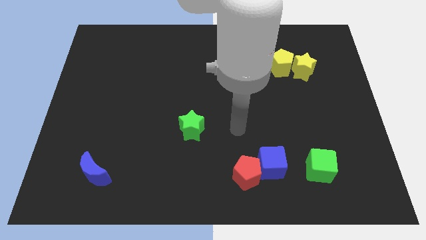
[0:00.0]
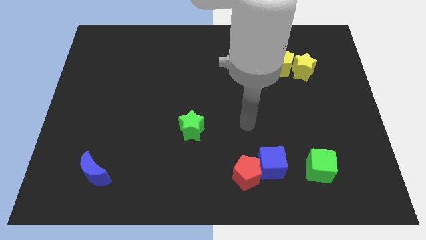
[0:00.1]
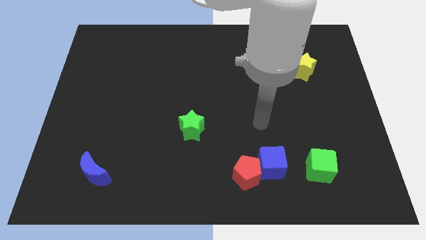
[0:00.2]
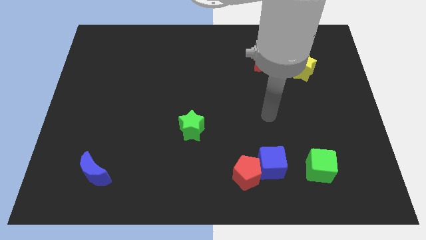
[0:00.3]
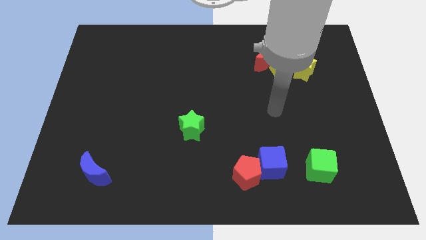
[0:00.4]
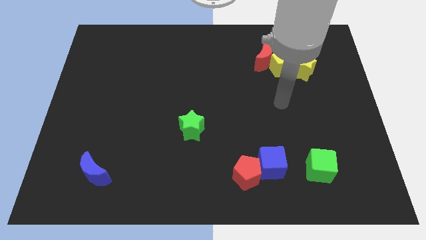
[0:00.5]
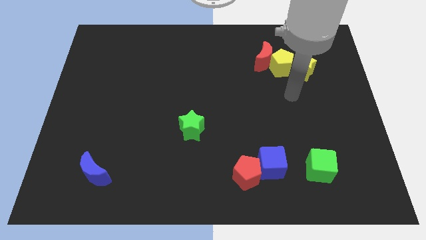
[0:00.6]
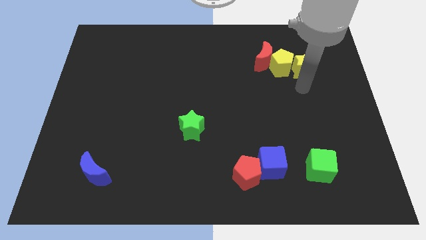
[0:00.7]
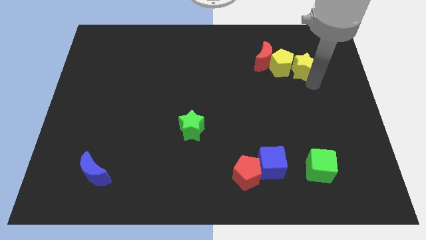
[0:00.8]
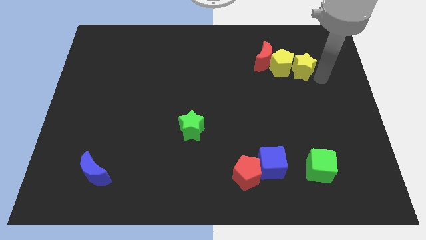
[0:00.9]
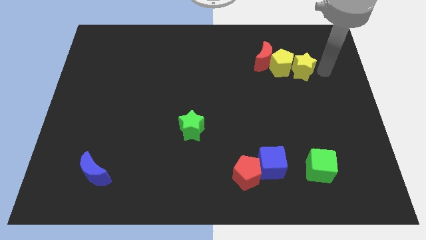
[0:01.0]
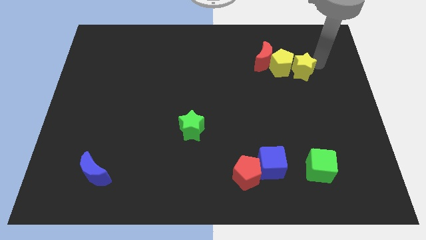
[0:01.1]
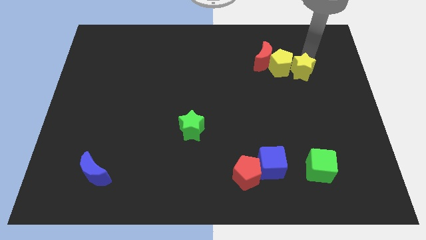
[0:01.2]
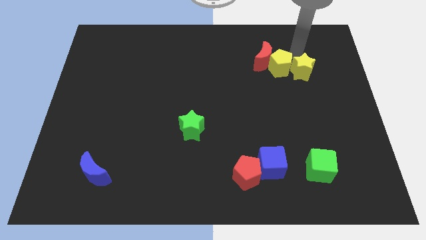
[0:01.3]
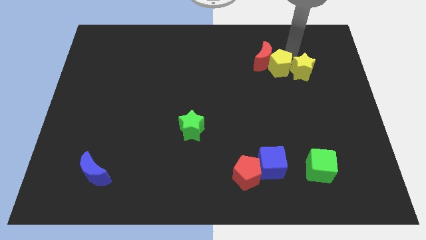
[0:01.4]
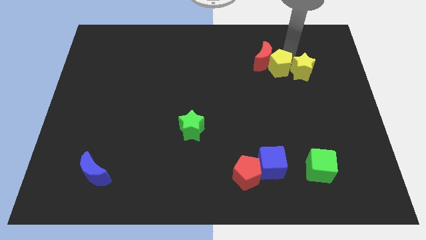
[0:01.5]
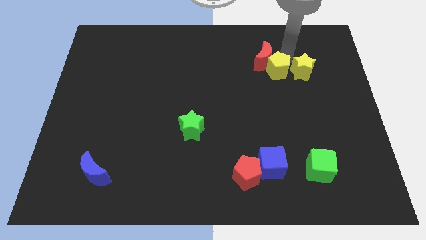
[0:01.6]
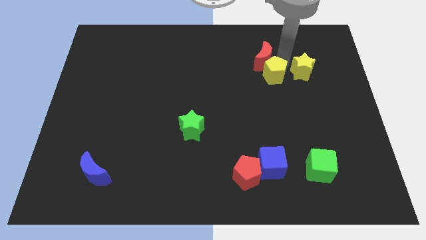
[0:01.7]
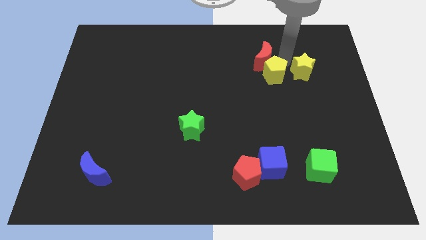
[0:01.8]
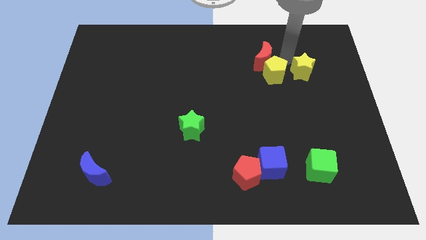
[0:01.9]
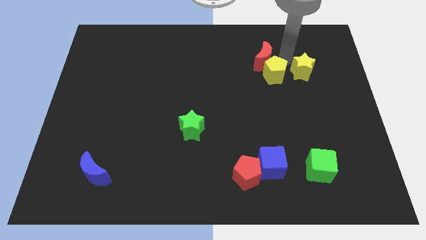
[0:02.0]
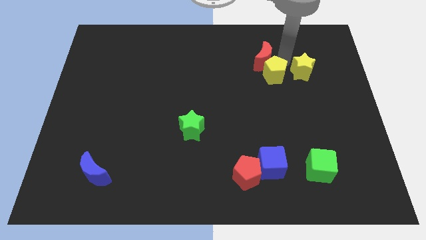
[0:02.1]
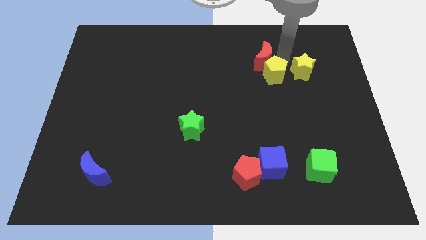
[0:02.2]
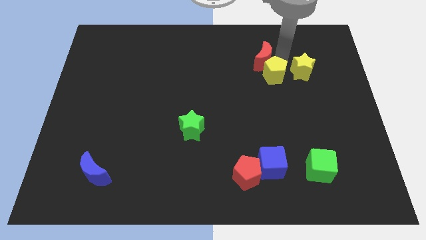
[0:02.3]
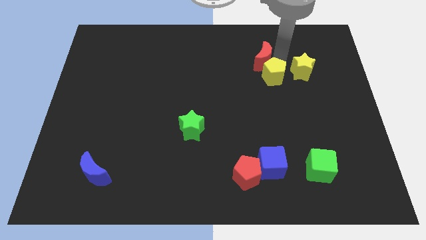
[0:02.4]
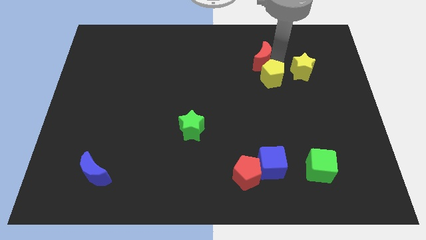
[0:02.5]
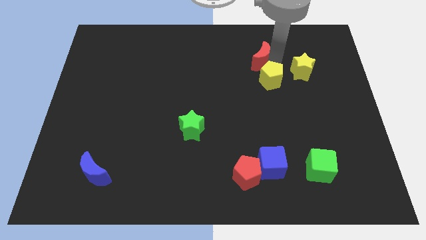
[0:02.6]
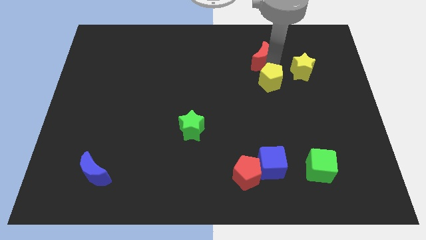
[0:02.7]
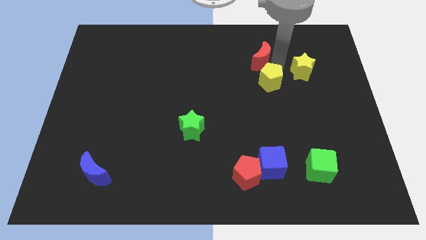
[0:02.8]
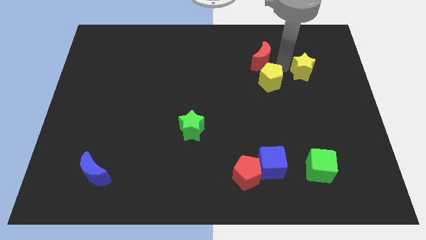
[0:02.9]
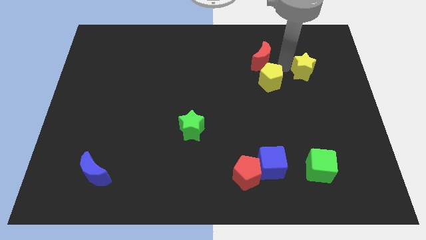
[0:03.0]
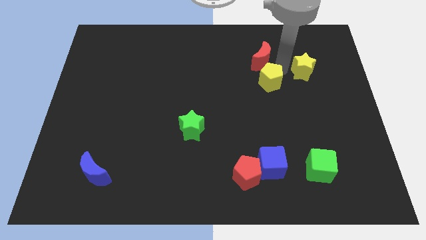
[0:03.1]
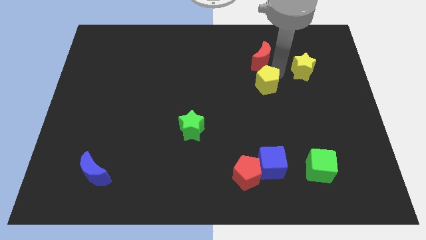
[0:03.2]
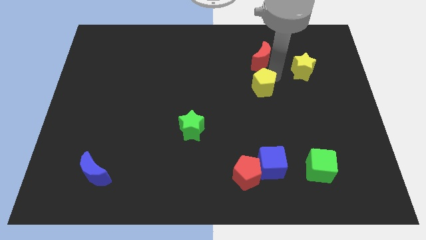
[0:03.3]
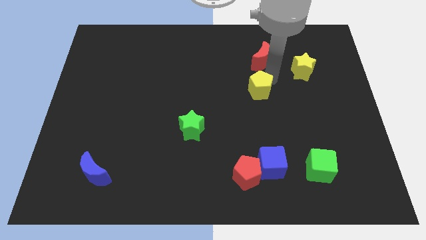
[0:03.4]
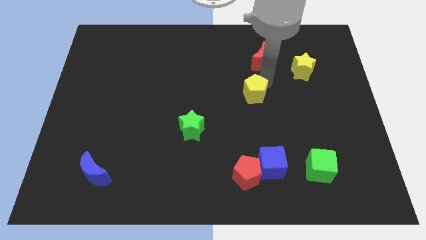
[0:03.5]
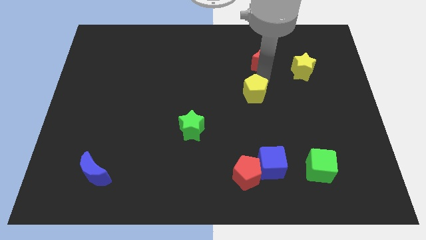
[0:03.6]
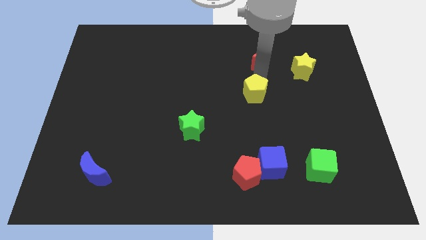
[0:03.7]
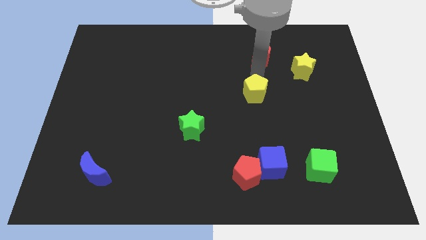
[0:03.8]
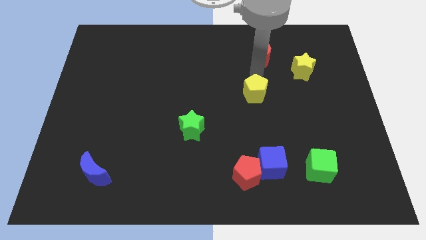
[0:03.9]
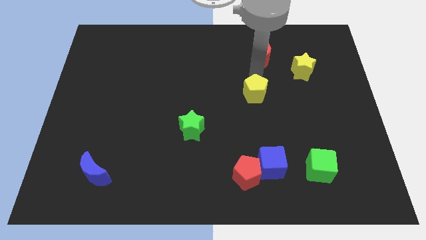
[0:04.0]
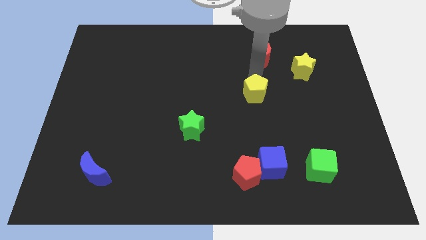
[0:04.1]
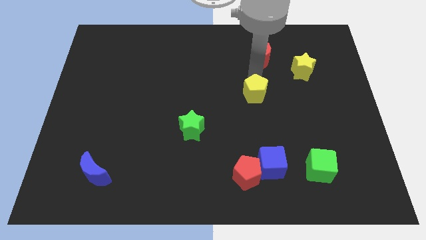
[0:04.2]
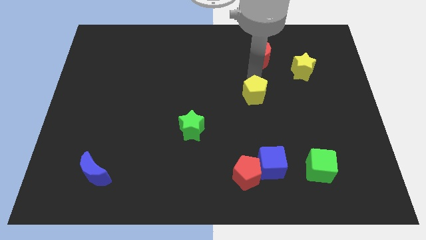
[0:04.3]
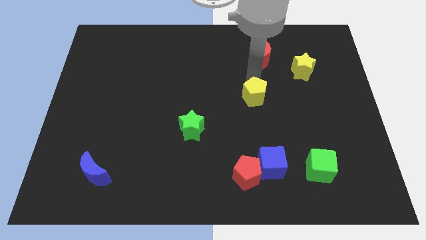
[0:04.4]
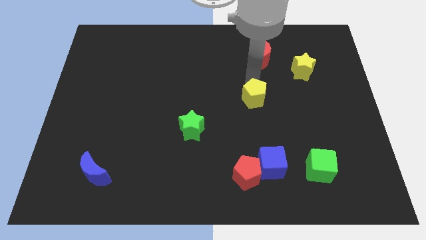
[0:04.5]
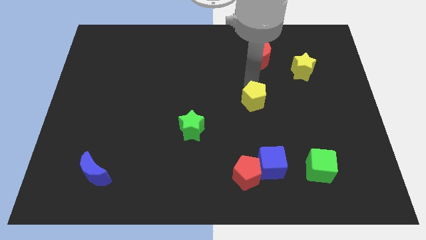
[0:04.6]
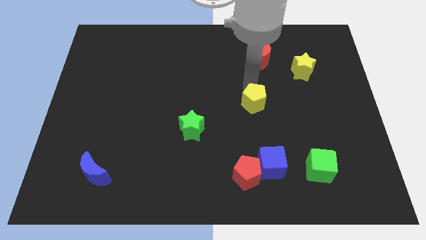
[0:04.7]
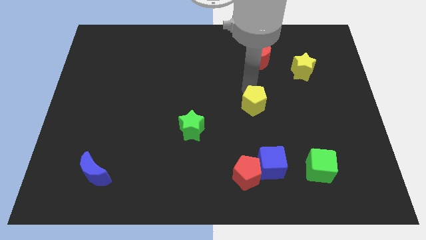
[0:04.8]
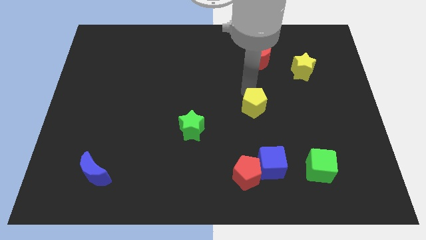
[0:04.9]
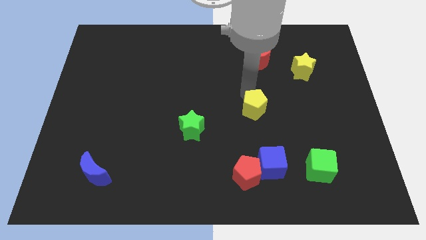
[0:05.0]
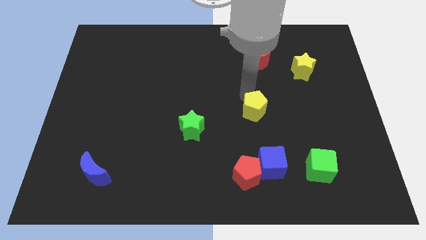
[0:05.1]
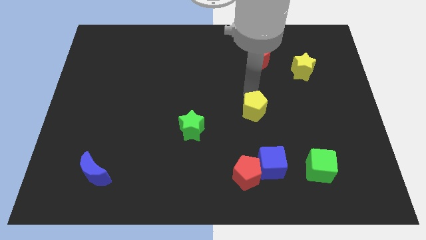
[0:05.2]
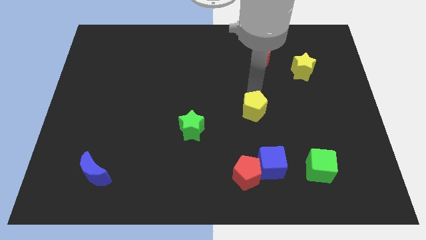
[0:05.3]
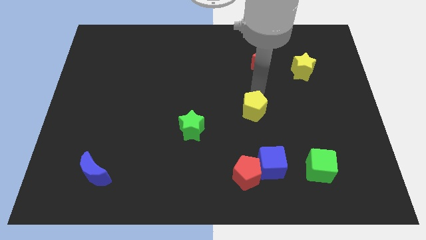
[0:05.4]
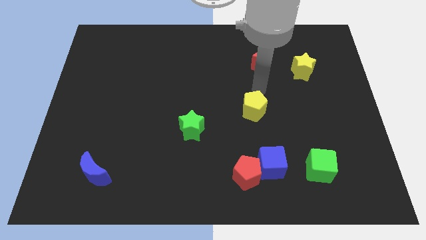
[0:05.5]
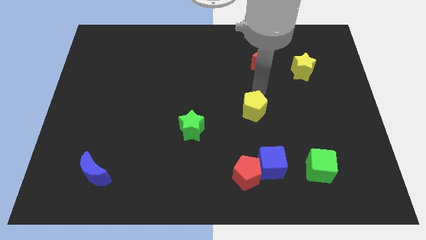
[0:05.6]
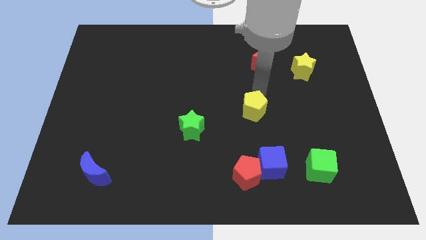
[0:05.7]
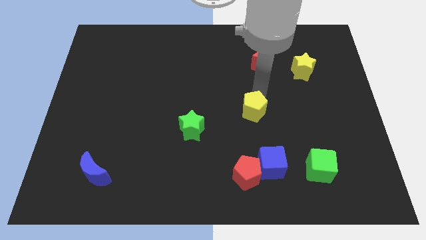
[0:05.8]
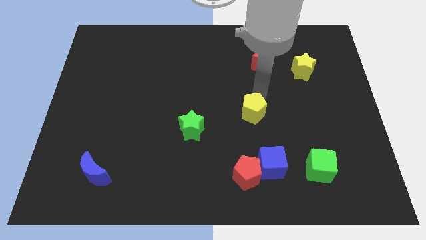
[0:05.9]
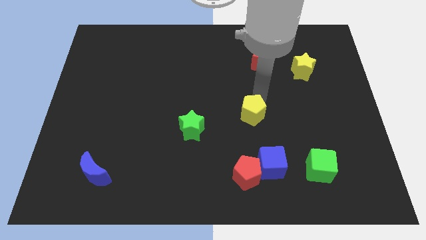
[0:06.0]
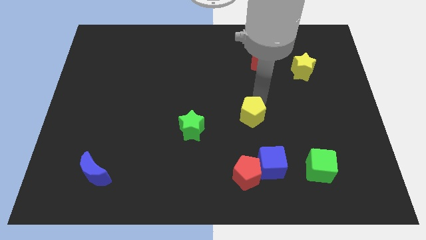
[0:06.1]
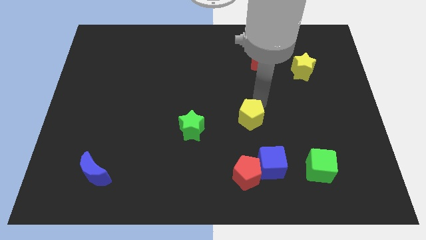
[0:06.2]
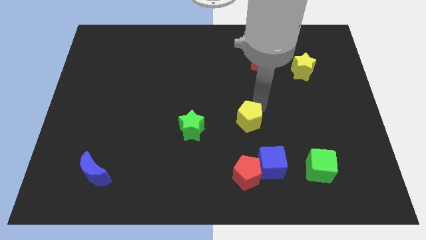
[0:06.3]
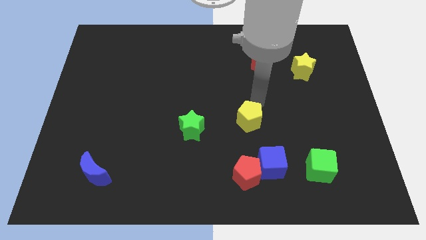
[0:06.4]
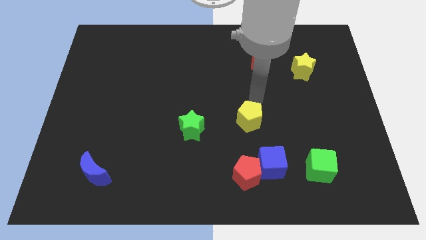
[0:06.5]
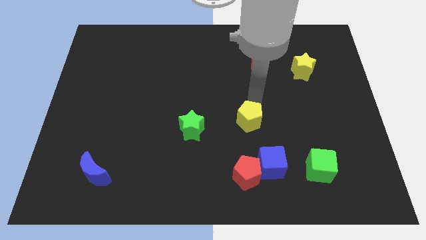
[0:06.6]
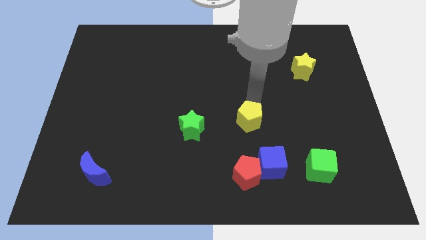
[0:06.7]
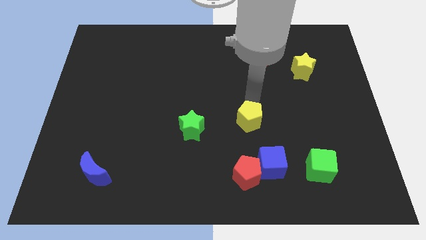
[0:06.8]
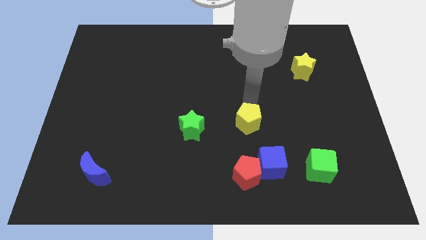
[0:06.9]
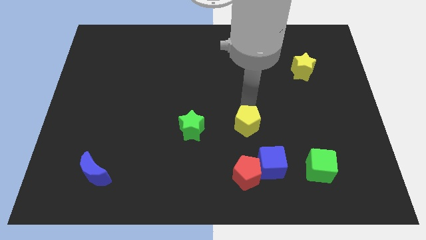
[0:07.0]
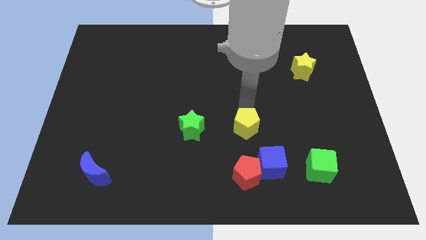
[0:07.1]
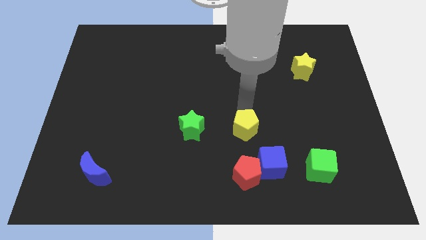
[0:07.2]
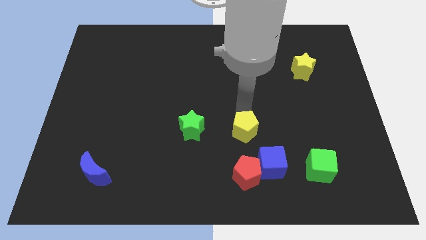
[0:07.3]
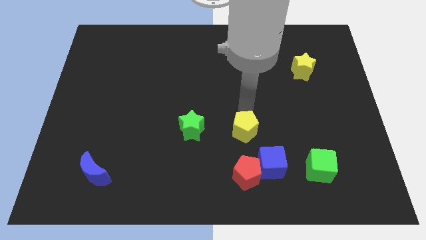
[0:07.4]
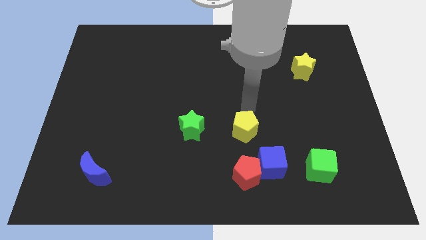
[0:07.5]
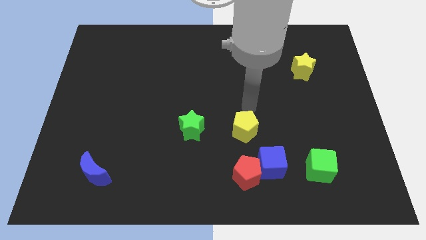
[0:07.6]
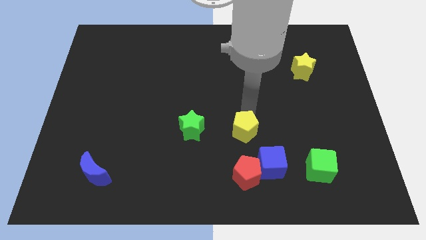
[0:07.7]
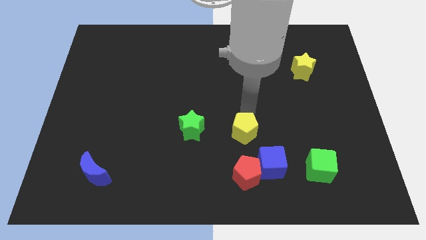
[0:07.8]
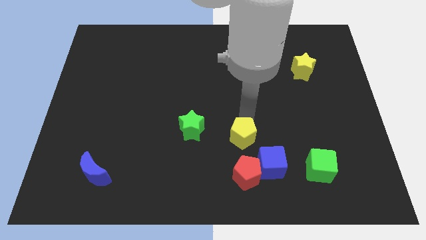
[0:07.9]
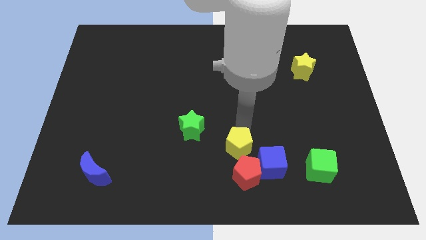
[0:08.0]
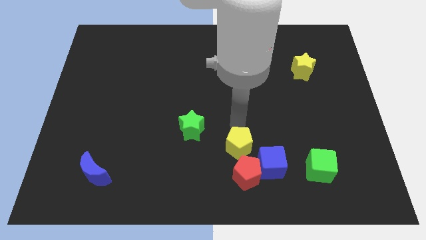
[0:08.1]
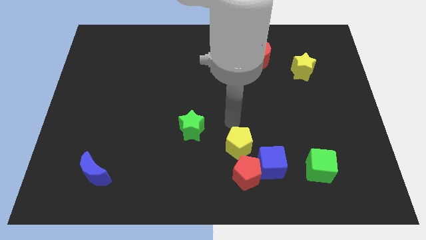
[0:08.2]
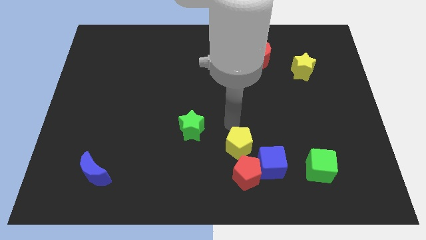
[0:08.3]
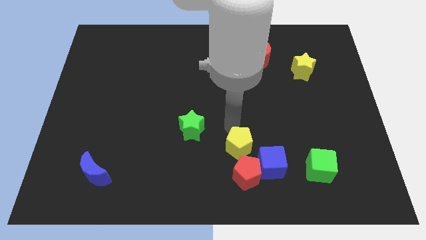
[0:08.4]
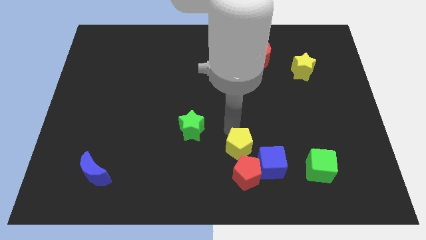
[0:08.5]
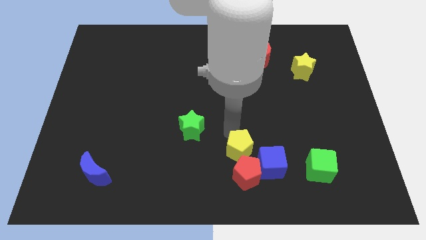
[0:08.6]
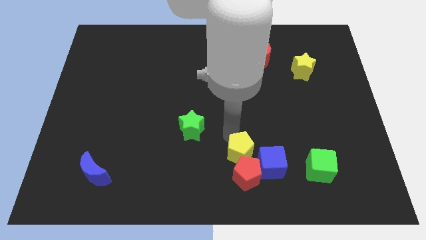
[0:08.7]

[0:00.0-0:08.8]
move the yellow pentagon towards the red pentagon
